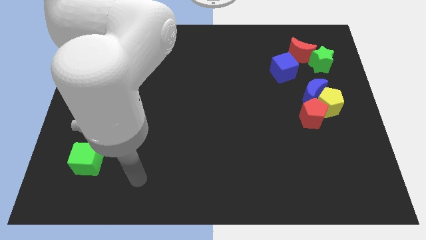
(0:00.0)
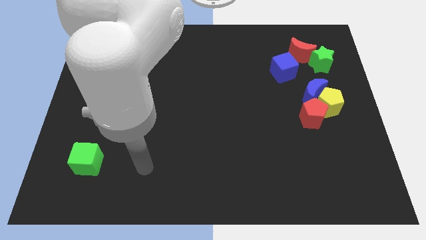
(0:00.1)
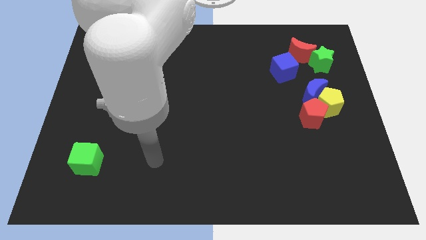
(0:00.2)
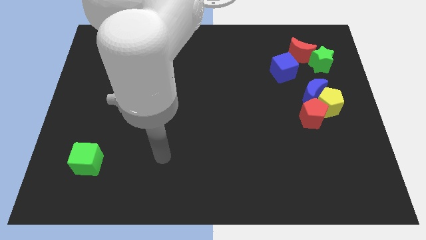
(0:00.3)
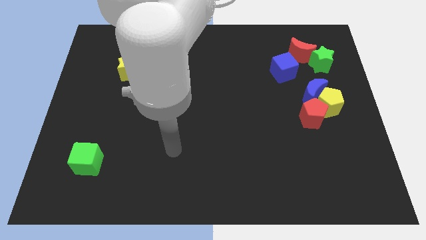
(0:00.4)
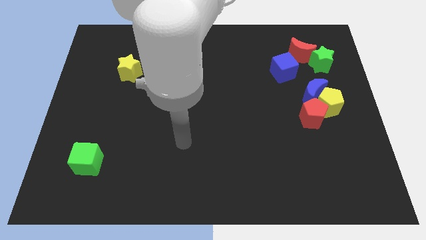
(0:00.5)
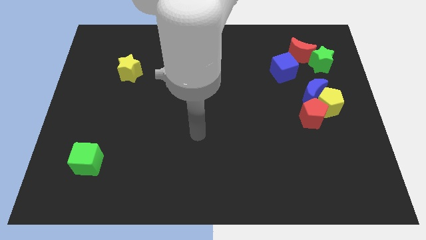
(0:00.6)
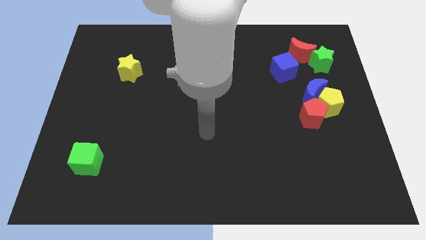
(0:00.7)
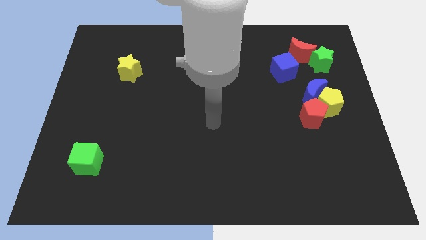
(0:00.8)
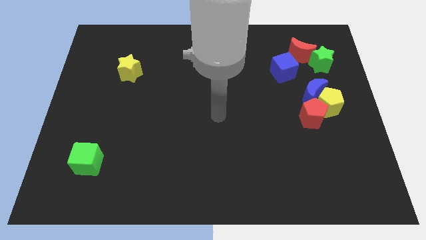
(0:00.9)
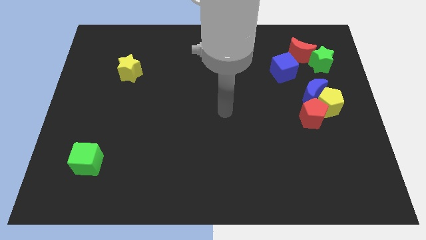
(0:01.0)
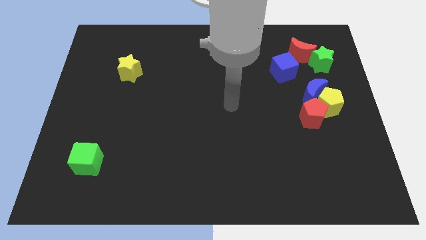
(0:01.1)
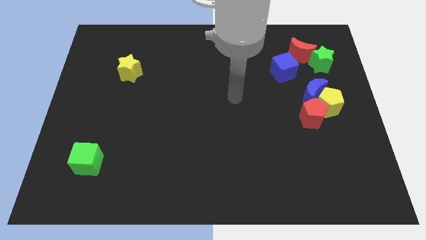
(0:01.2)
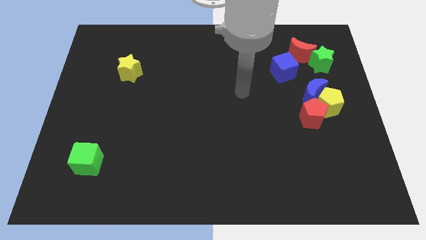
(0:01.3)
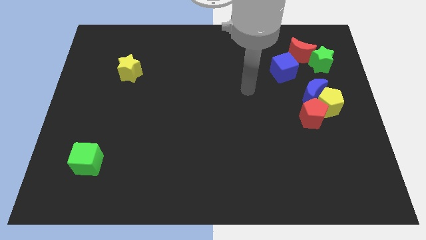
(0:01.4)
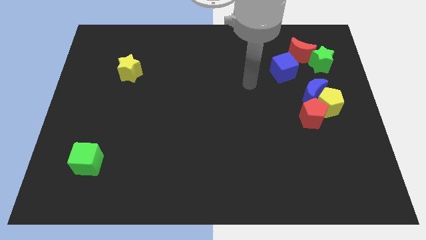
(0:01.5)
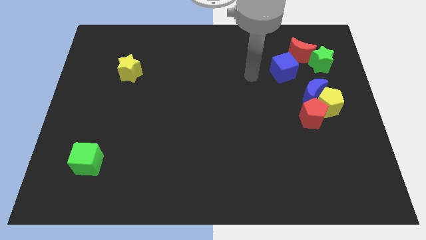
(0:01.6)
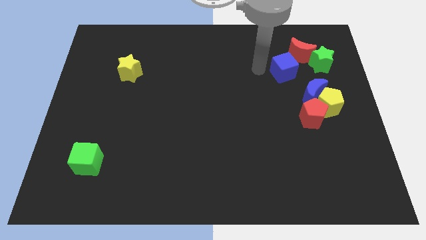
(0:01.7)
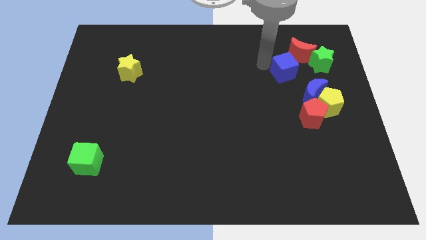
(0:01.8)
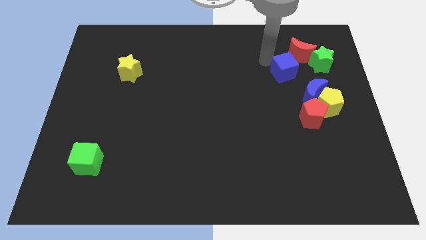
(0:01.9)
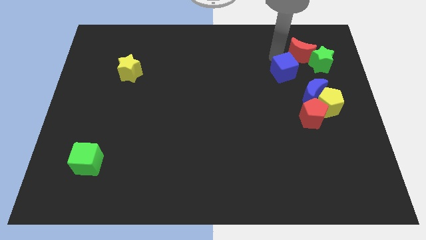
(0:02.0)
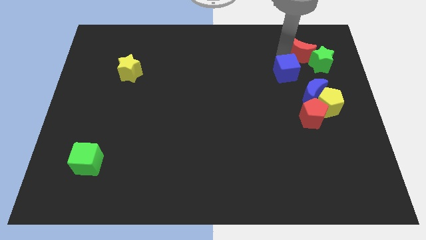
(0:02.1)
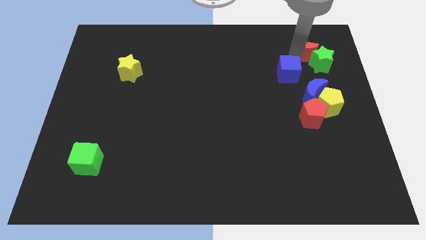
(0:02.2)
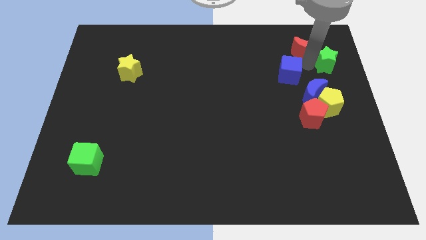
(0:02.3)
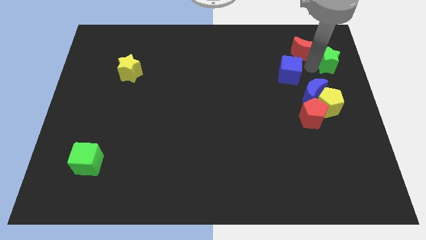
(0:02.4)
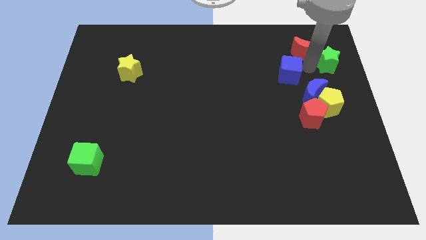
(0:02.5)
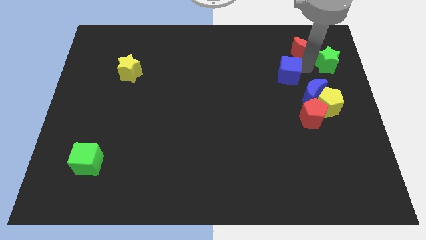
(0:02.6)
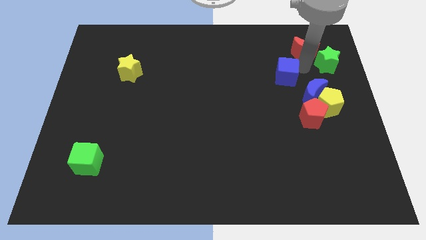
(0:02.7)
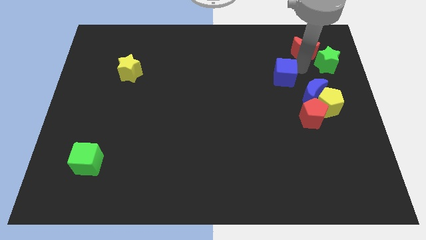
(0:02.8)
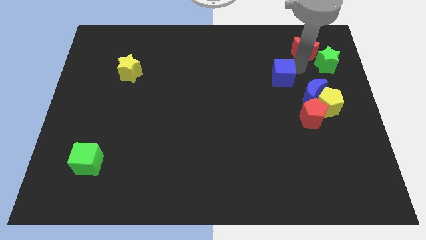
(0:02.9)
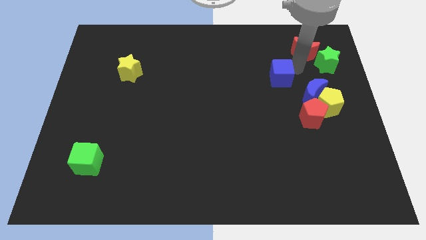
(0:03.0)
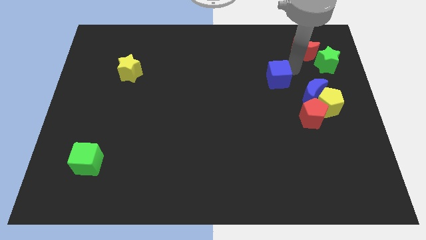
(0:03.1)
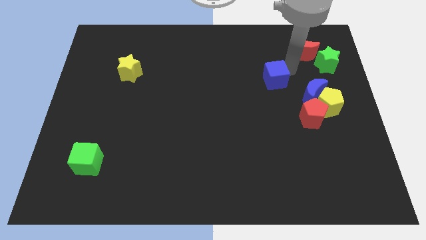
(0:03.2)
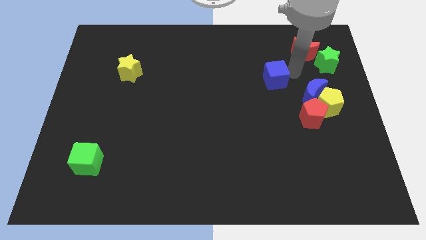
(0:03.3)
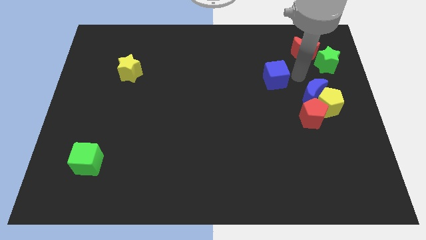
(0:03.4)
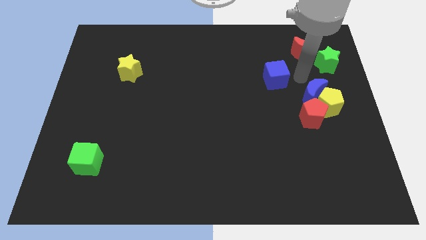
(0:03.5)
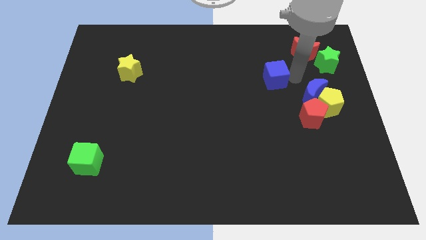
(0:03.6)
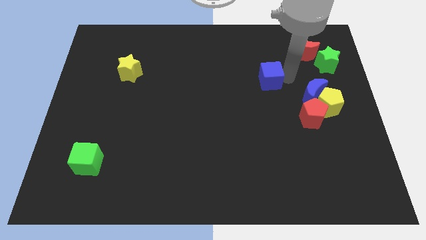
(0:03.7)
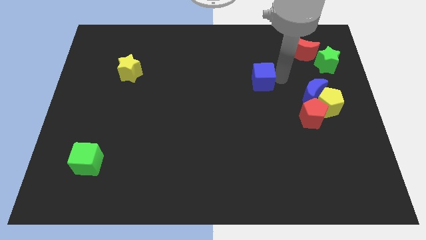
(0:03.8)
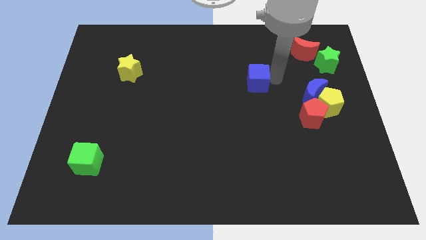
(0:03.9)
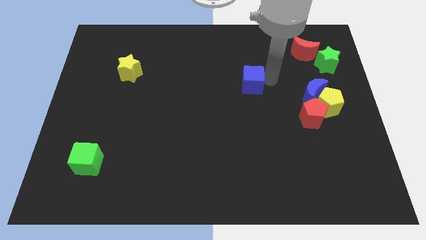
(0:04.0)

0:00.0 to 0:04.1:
move the blue cube a little left

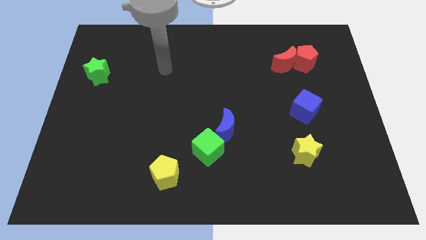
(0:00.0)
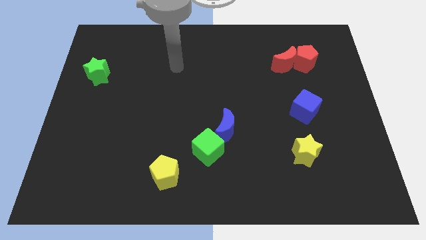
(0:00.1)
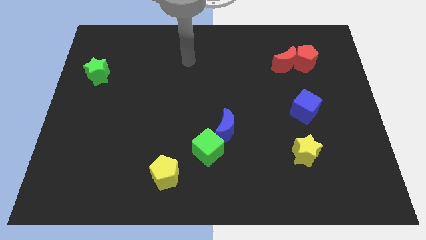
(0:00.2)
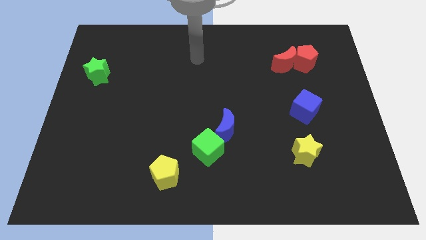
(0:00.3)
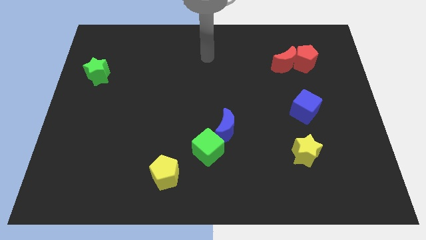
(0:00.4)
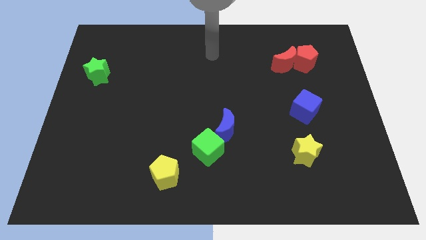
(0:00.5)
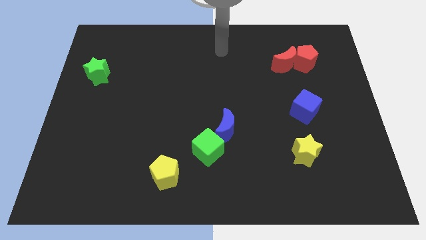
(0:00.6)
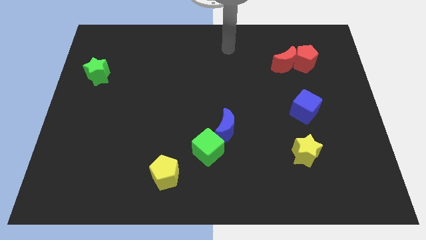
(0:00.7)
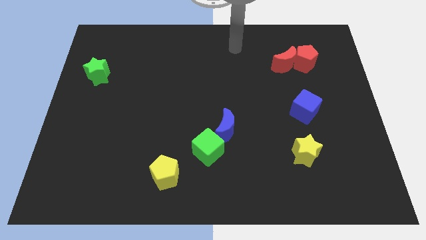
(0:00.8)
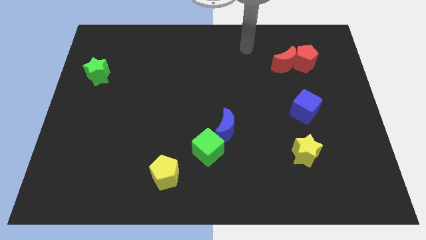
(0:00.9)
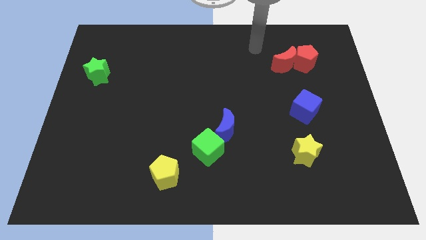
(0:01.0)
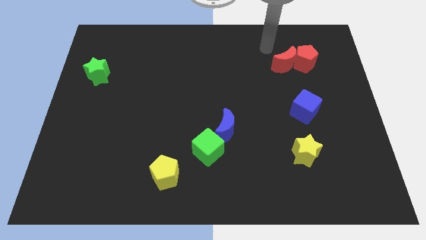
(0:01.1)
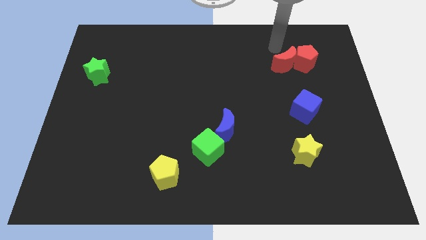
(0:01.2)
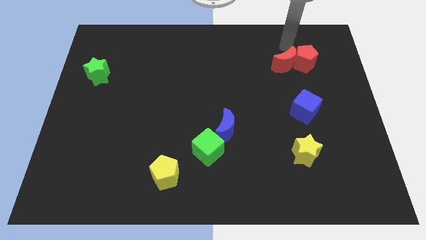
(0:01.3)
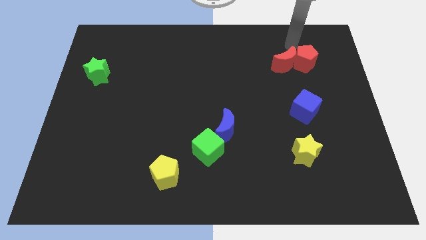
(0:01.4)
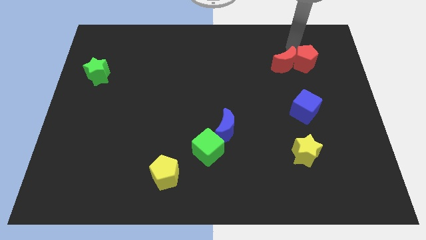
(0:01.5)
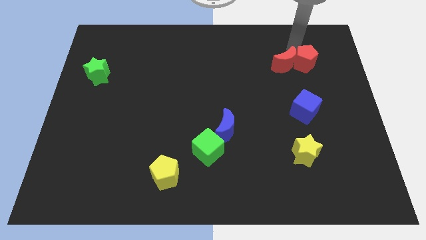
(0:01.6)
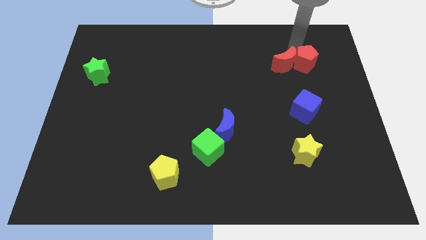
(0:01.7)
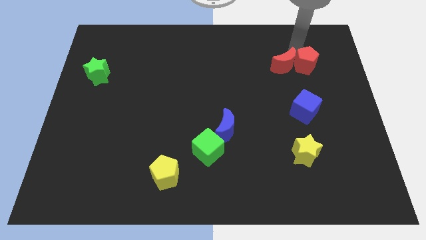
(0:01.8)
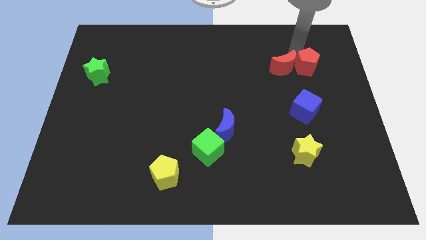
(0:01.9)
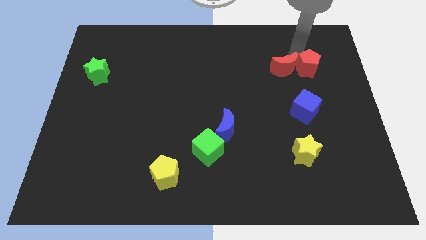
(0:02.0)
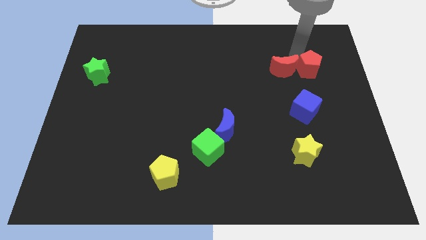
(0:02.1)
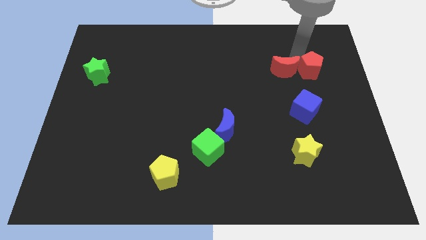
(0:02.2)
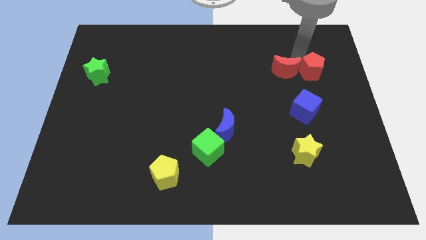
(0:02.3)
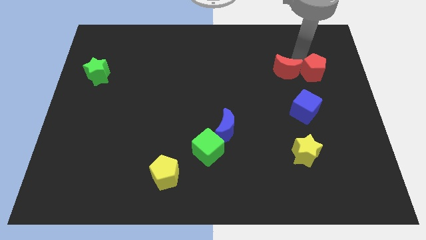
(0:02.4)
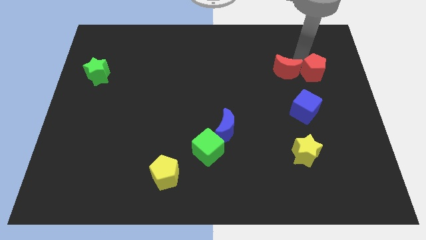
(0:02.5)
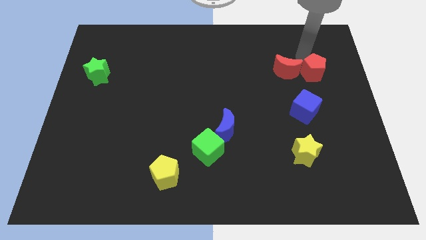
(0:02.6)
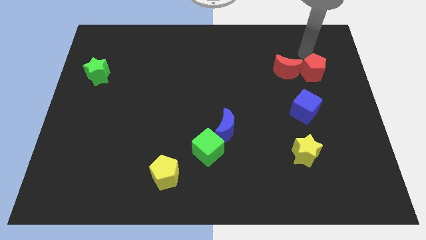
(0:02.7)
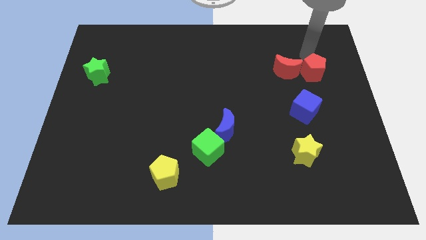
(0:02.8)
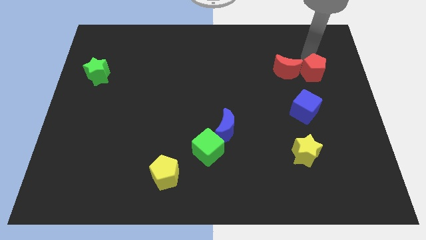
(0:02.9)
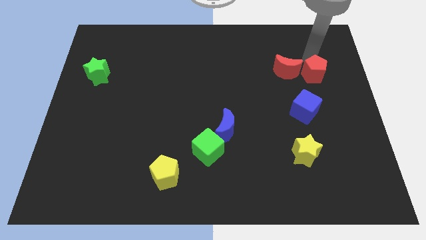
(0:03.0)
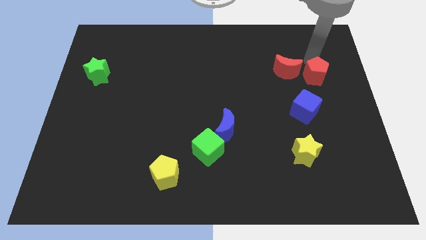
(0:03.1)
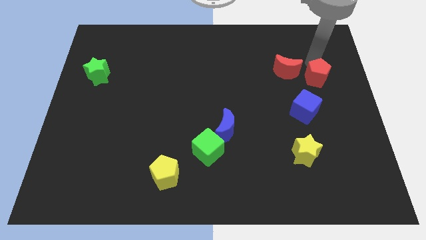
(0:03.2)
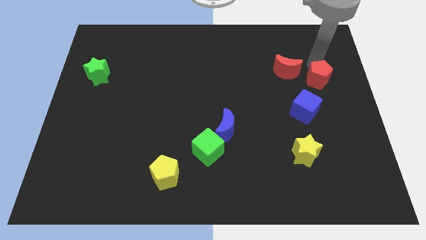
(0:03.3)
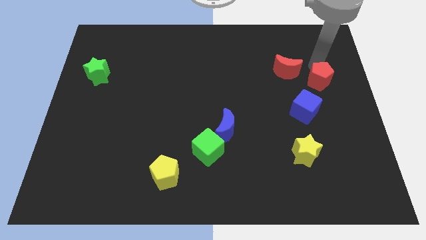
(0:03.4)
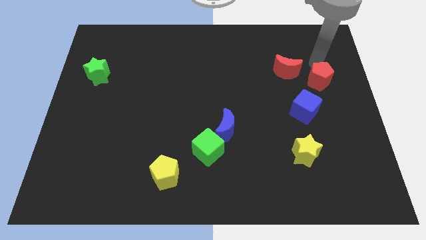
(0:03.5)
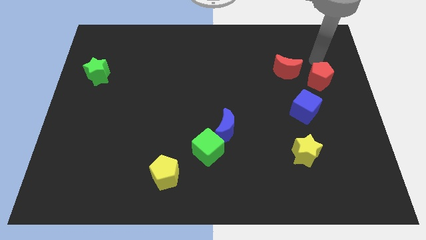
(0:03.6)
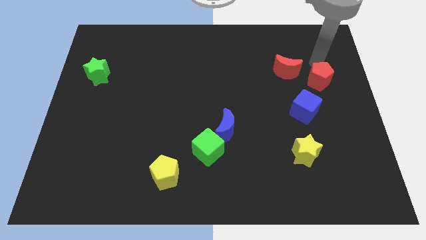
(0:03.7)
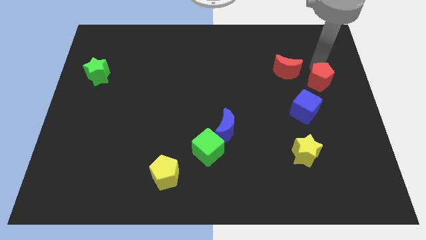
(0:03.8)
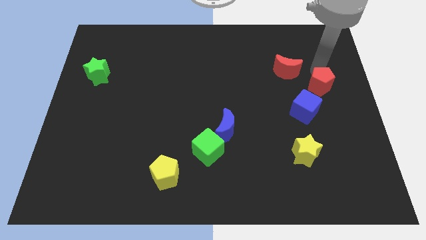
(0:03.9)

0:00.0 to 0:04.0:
move the red pentagon downwards a little bit
